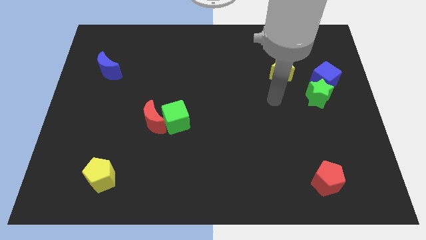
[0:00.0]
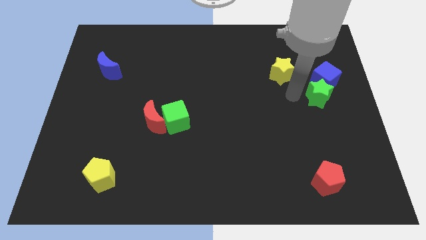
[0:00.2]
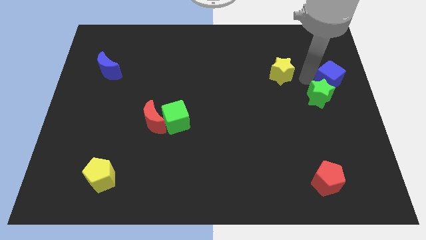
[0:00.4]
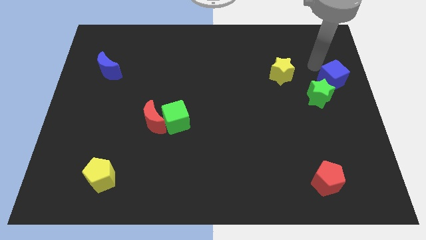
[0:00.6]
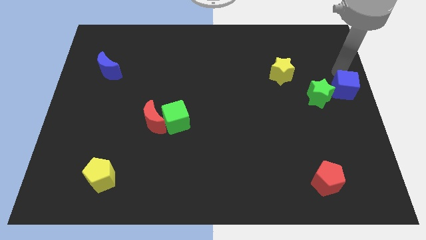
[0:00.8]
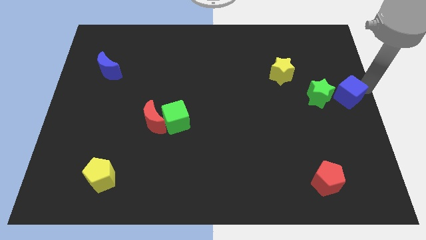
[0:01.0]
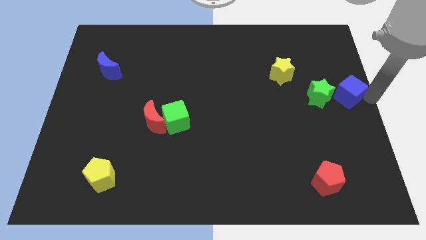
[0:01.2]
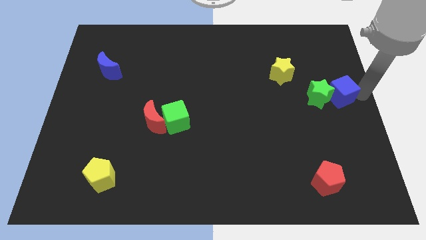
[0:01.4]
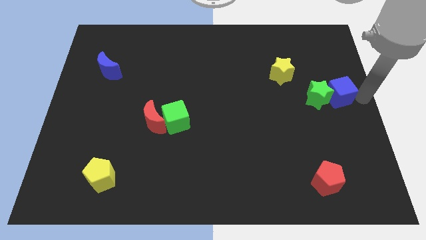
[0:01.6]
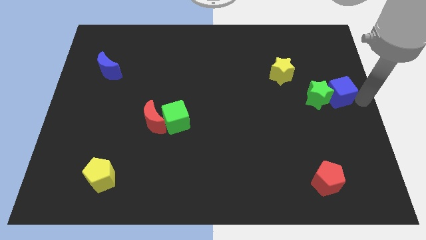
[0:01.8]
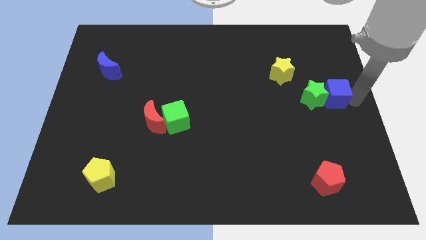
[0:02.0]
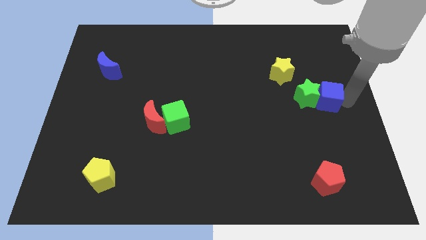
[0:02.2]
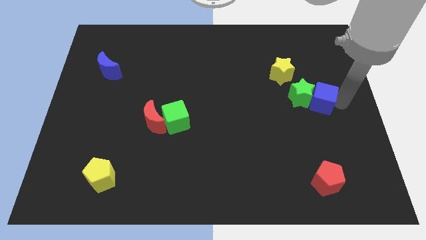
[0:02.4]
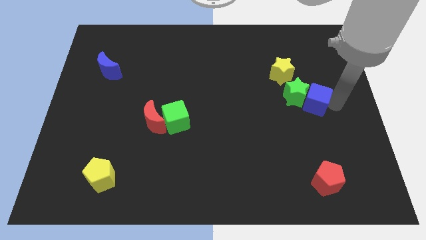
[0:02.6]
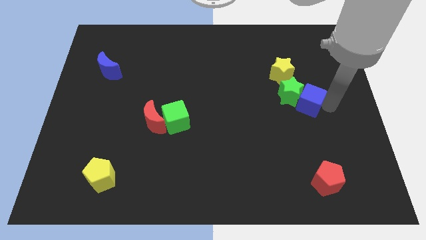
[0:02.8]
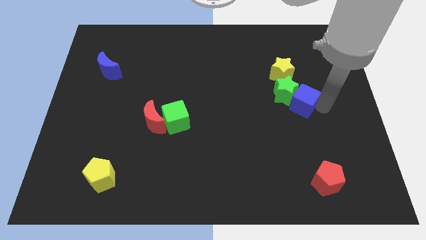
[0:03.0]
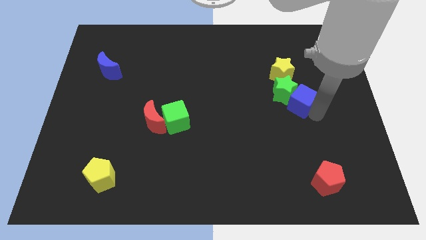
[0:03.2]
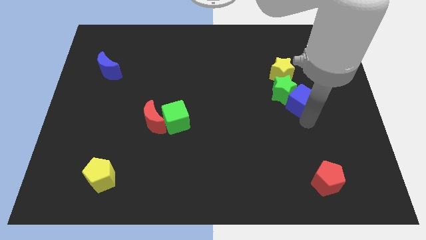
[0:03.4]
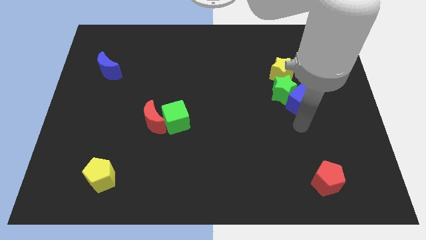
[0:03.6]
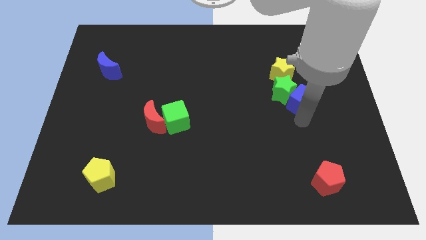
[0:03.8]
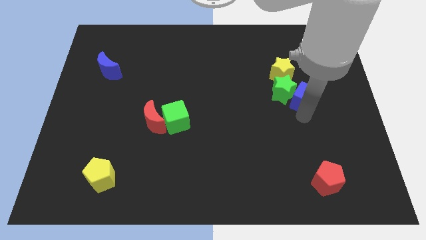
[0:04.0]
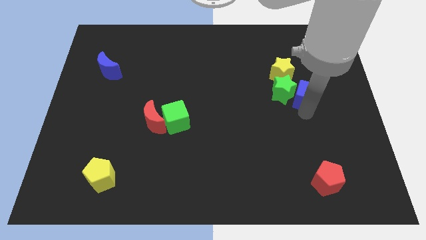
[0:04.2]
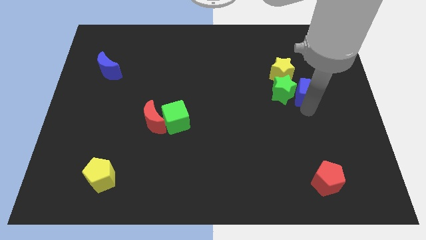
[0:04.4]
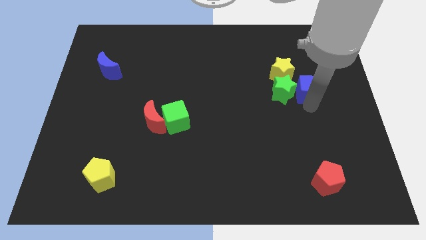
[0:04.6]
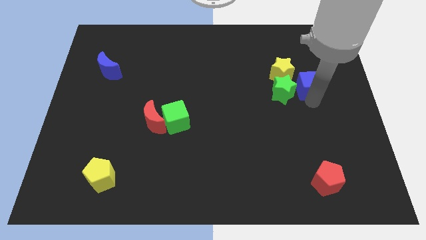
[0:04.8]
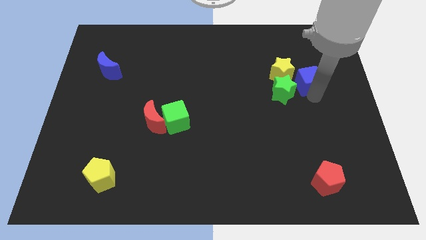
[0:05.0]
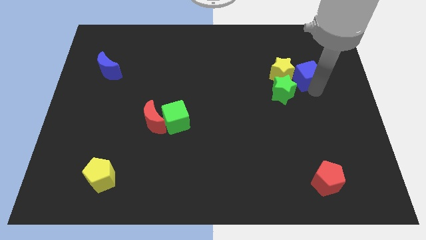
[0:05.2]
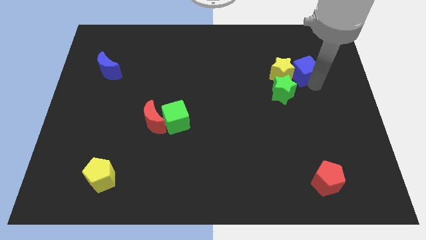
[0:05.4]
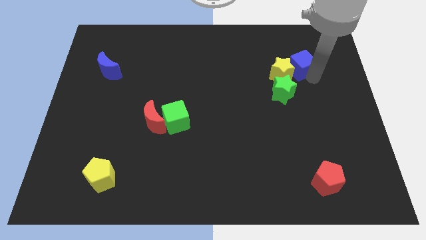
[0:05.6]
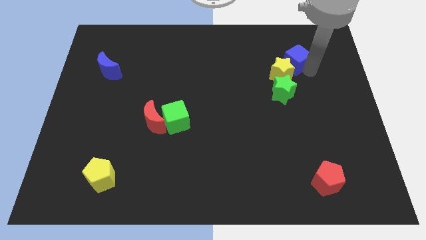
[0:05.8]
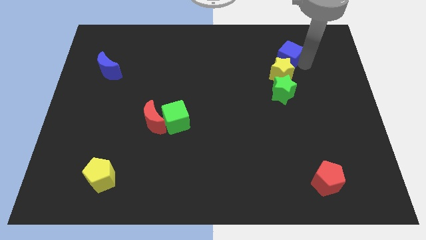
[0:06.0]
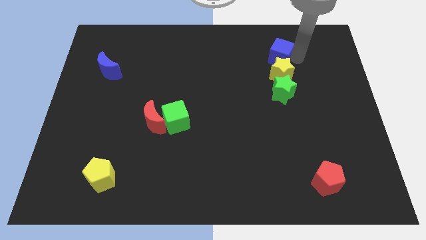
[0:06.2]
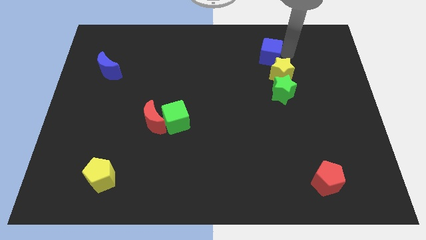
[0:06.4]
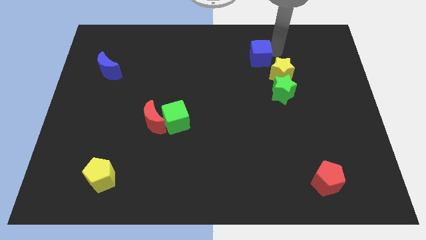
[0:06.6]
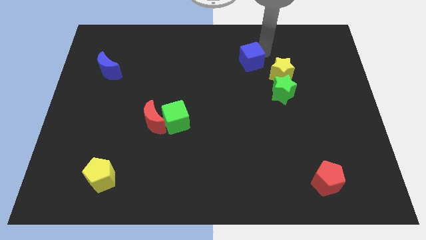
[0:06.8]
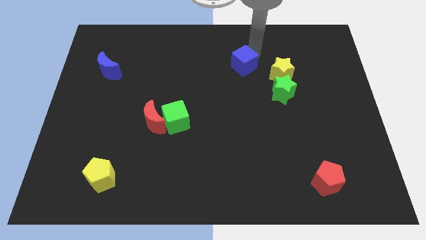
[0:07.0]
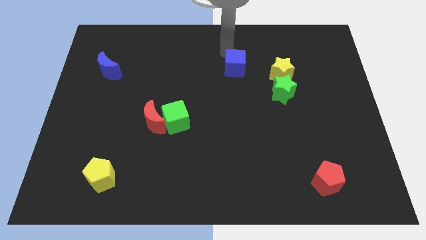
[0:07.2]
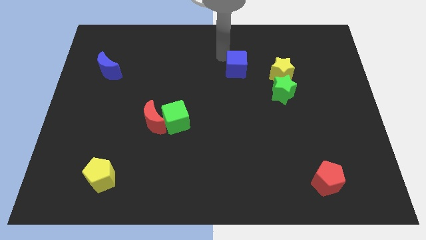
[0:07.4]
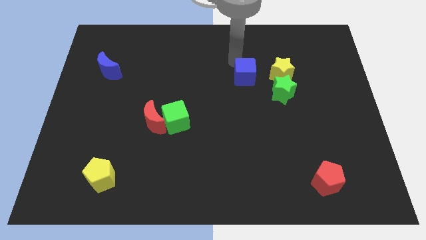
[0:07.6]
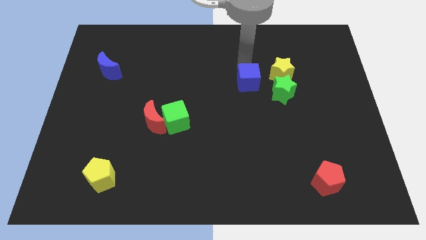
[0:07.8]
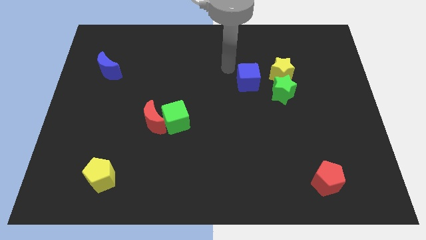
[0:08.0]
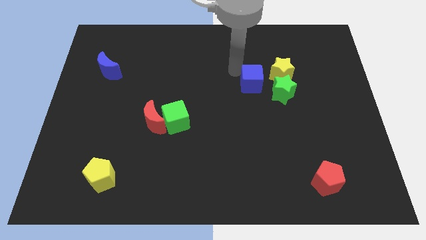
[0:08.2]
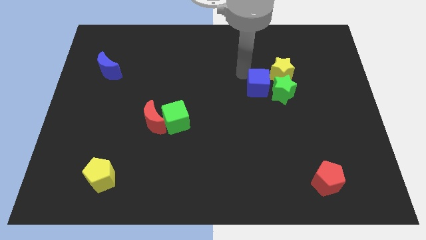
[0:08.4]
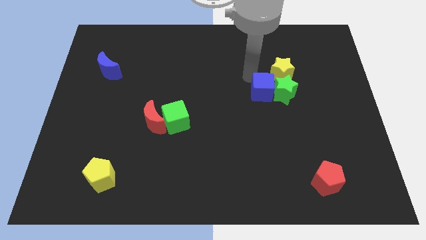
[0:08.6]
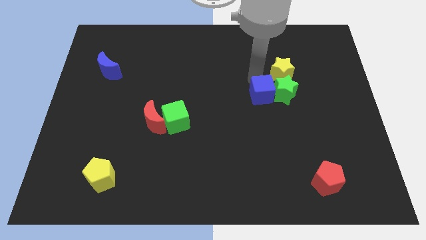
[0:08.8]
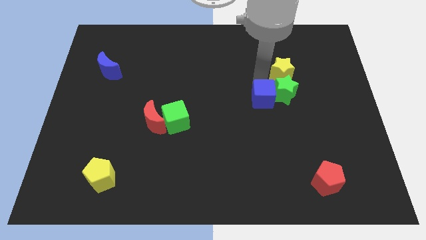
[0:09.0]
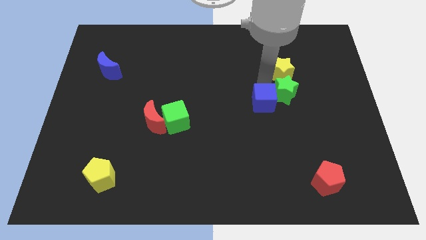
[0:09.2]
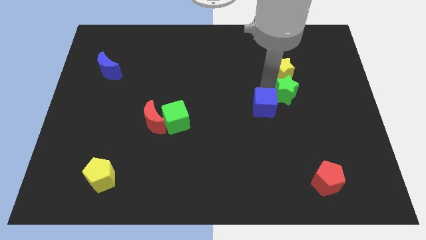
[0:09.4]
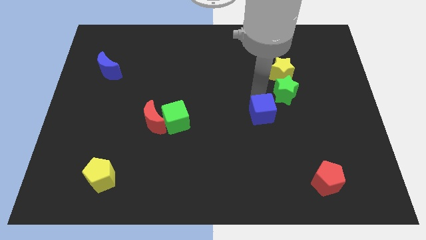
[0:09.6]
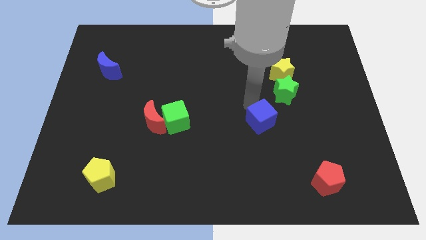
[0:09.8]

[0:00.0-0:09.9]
move the blue cube diagonally downwards and to the left

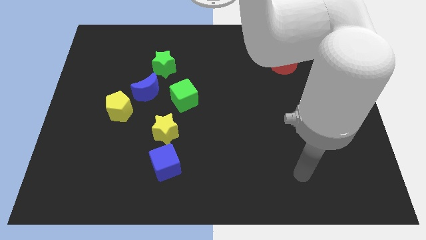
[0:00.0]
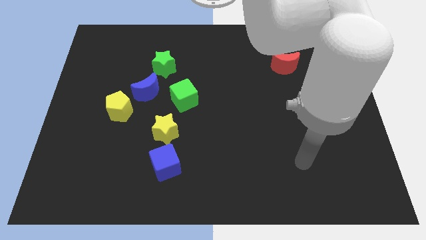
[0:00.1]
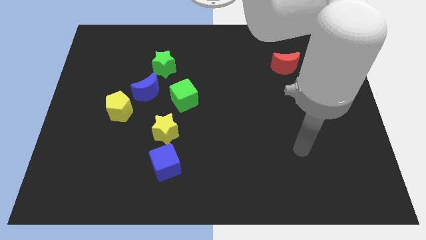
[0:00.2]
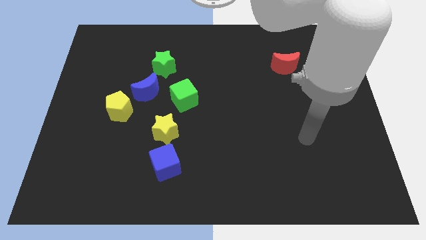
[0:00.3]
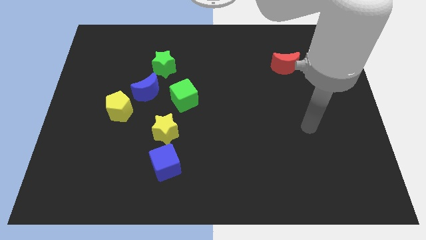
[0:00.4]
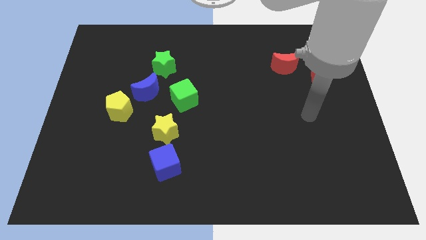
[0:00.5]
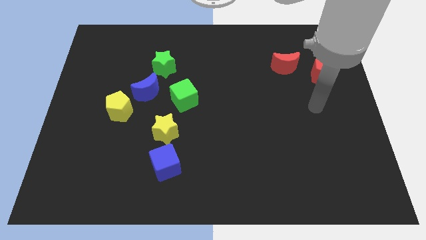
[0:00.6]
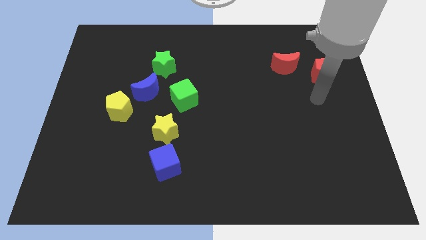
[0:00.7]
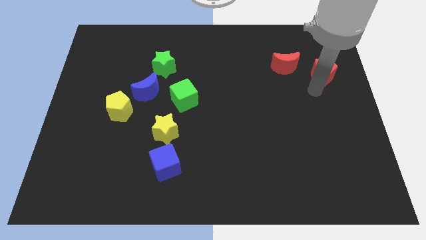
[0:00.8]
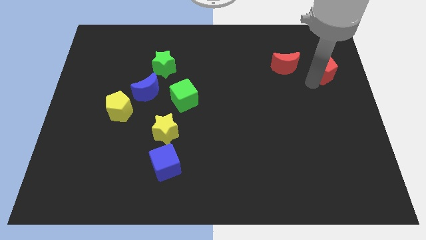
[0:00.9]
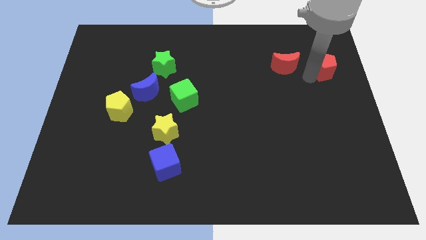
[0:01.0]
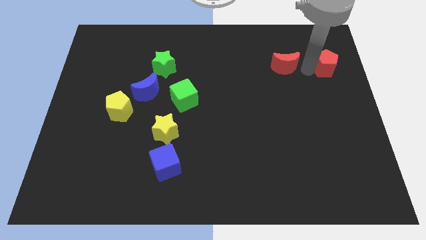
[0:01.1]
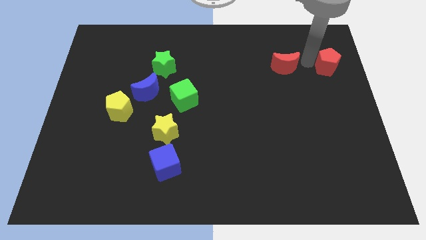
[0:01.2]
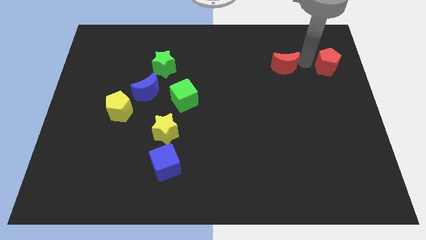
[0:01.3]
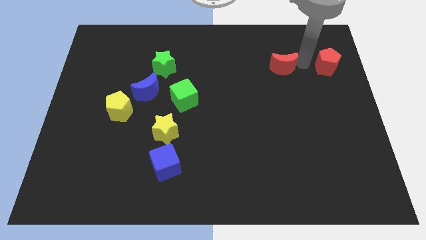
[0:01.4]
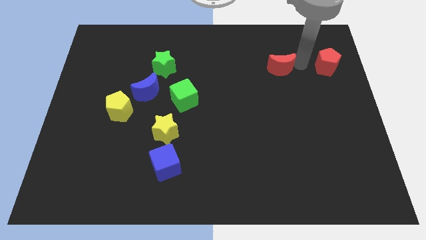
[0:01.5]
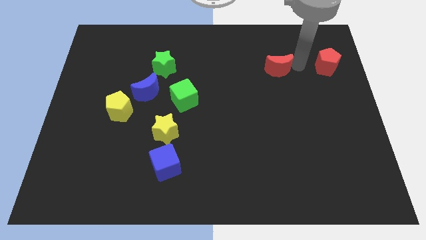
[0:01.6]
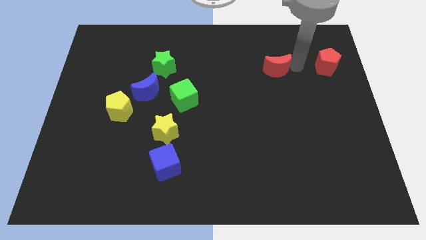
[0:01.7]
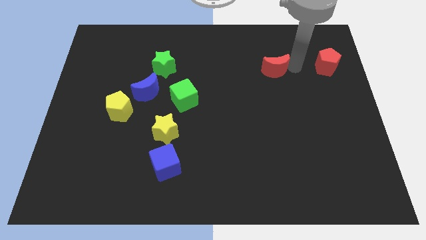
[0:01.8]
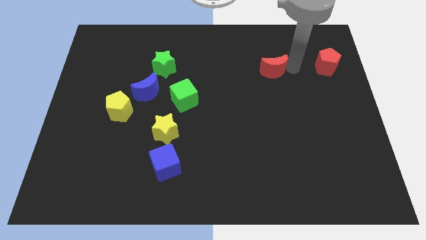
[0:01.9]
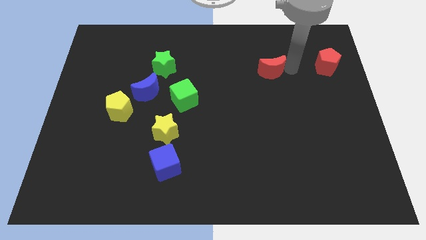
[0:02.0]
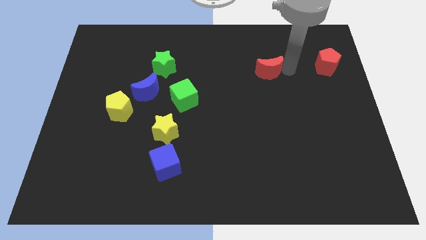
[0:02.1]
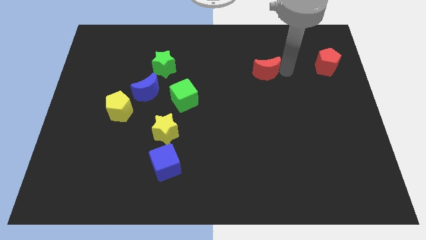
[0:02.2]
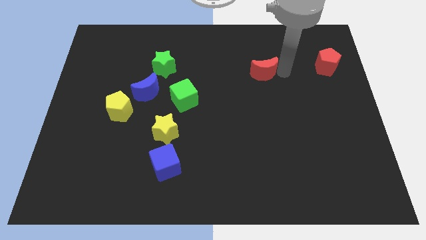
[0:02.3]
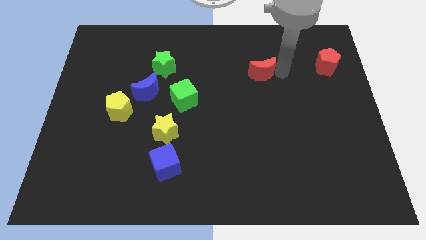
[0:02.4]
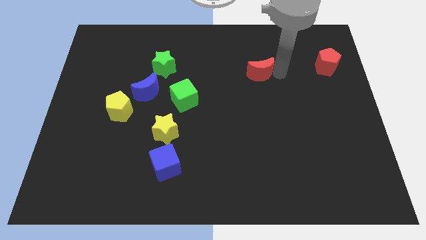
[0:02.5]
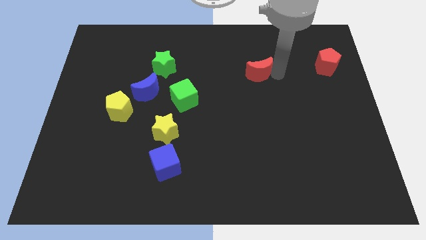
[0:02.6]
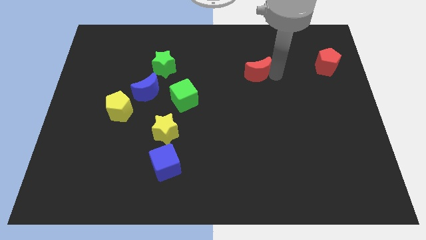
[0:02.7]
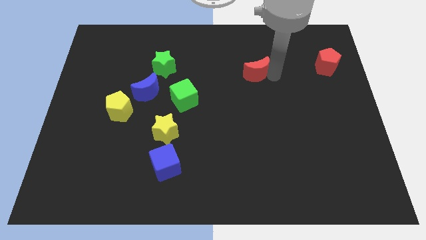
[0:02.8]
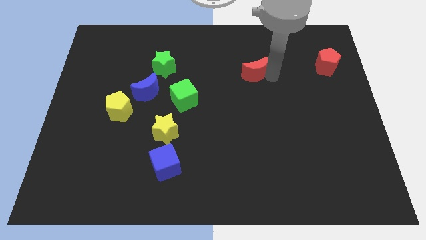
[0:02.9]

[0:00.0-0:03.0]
slide the red moon down and left a little bit
